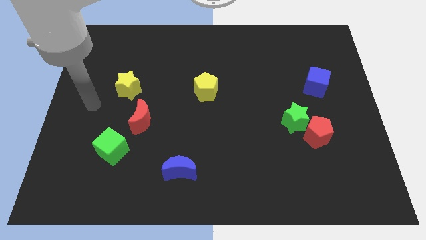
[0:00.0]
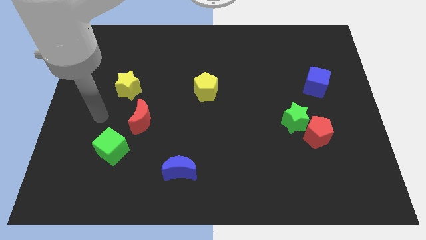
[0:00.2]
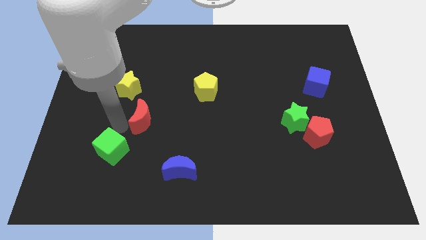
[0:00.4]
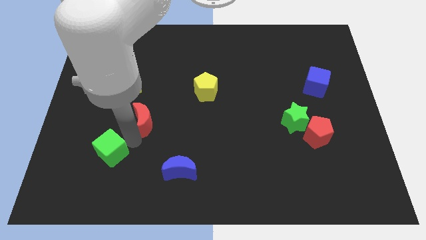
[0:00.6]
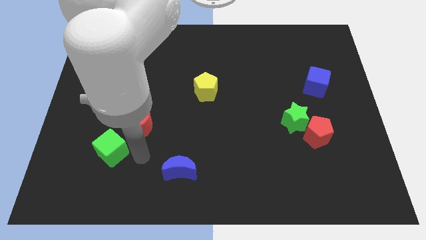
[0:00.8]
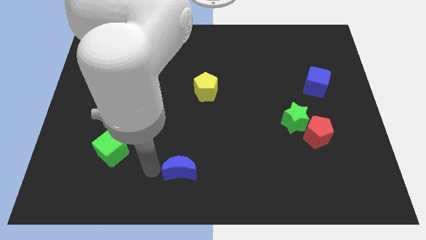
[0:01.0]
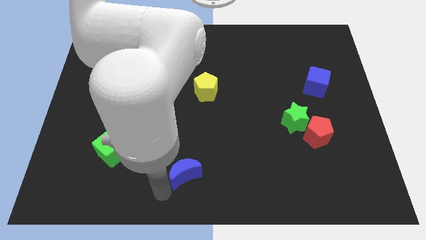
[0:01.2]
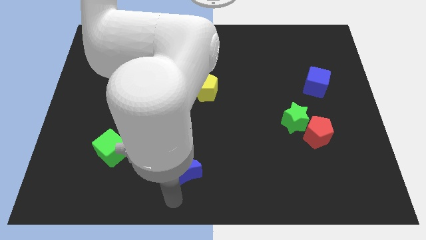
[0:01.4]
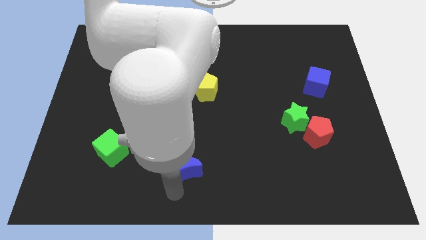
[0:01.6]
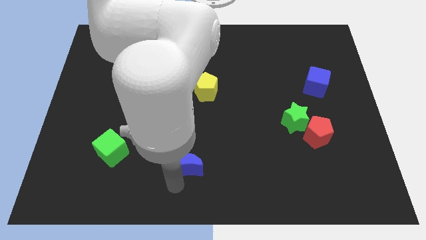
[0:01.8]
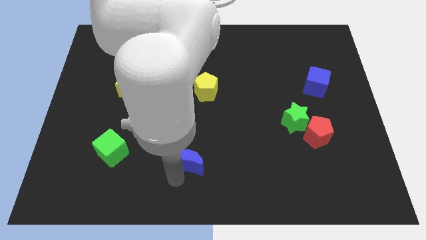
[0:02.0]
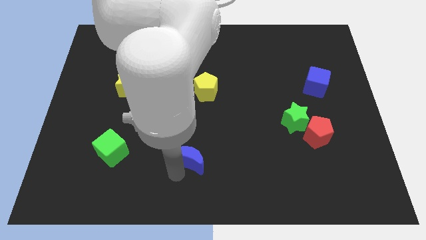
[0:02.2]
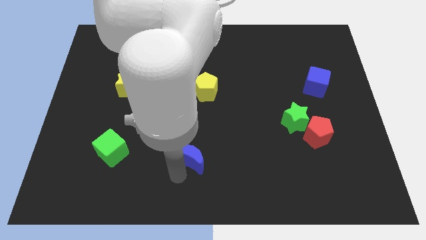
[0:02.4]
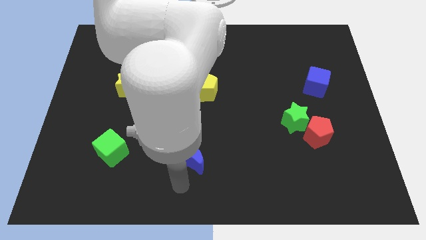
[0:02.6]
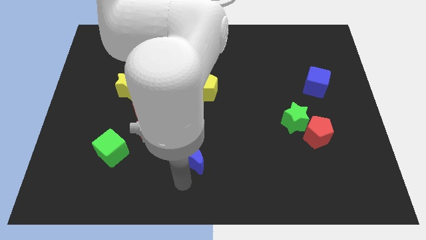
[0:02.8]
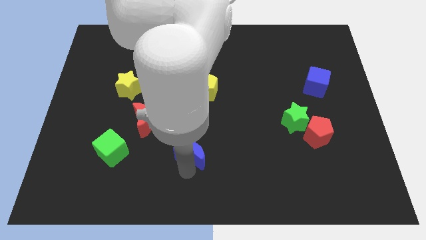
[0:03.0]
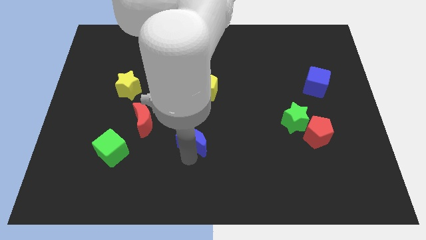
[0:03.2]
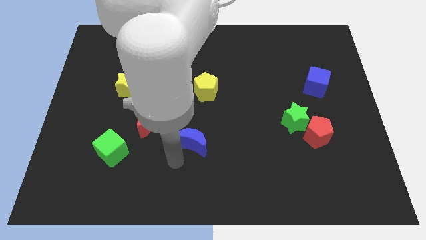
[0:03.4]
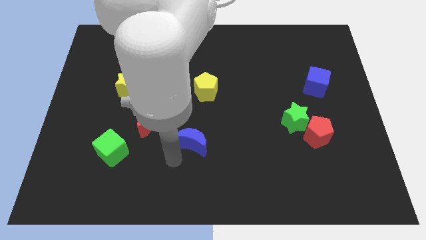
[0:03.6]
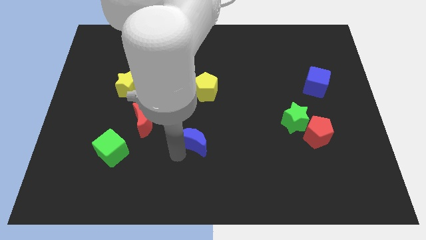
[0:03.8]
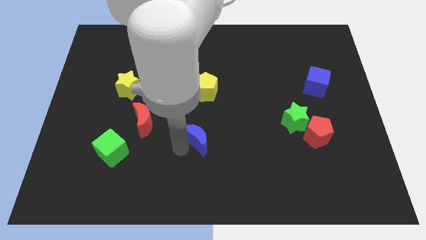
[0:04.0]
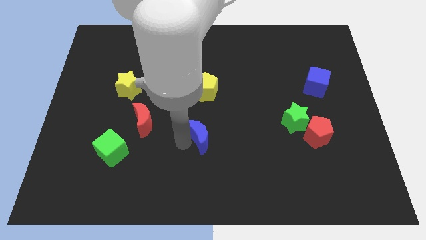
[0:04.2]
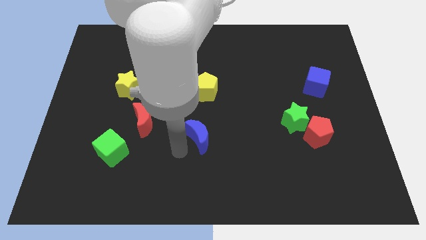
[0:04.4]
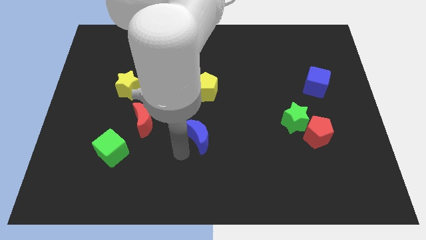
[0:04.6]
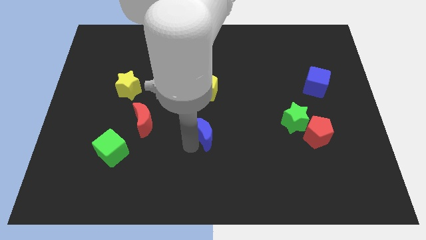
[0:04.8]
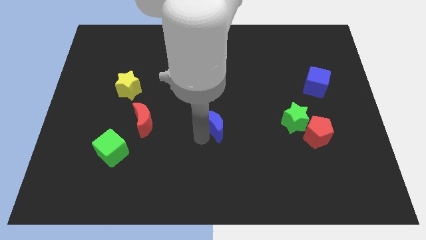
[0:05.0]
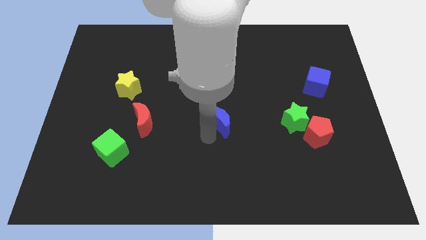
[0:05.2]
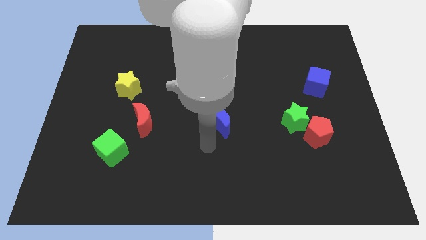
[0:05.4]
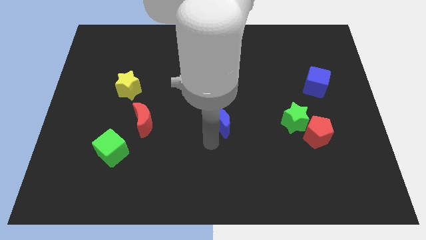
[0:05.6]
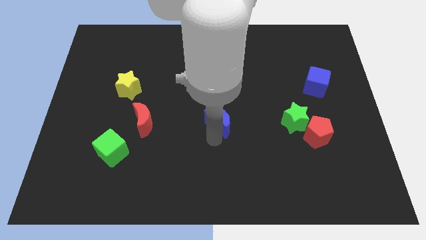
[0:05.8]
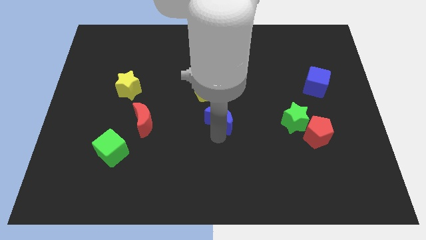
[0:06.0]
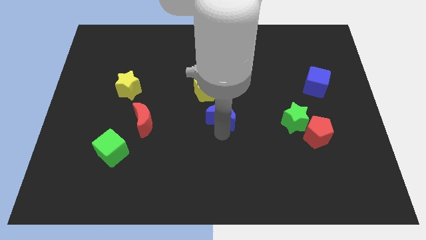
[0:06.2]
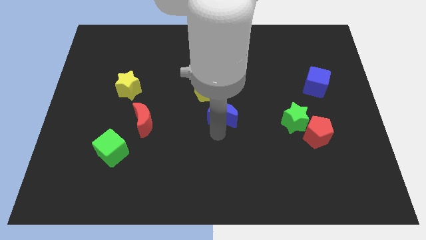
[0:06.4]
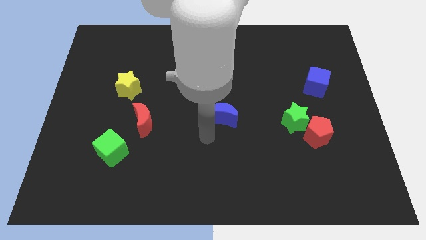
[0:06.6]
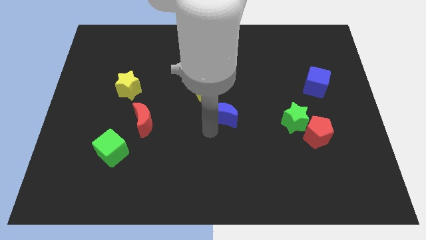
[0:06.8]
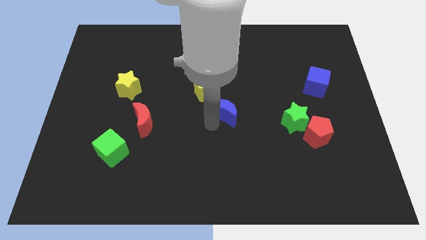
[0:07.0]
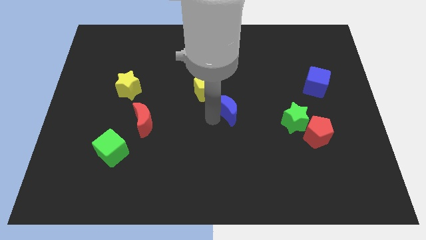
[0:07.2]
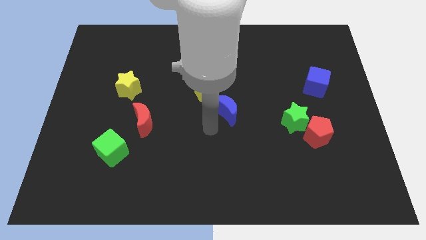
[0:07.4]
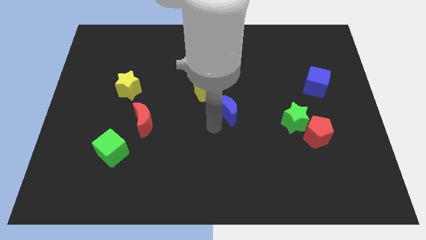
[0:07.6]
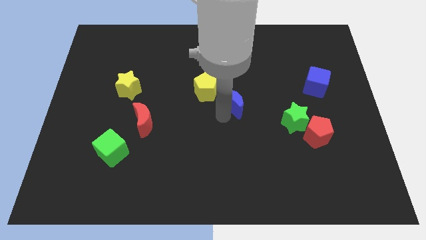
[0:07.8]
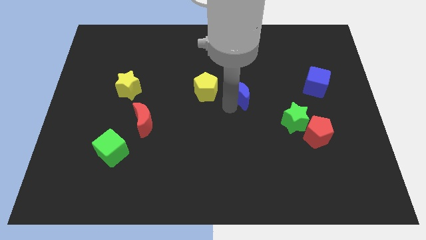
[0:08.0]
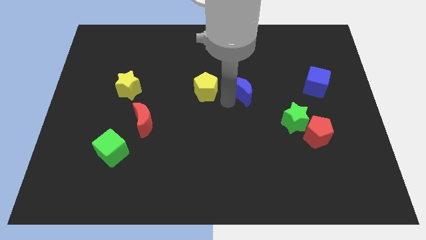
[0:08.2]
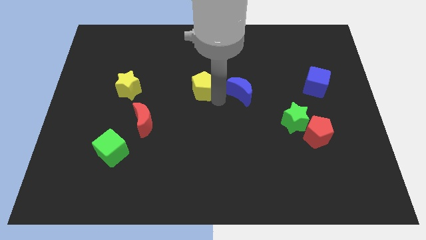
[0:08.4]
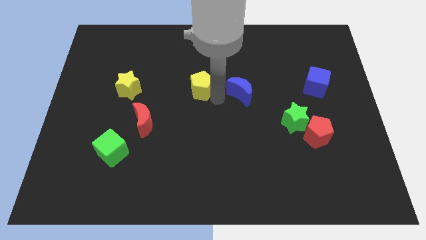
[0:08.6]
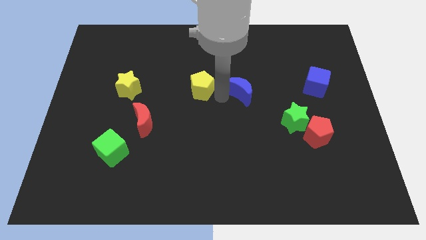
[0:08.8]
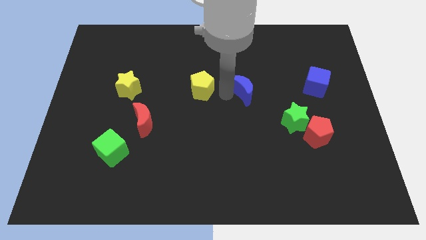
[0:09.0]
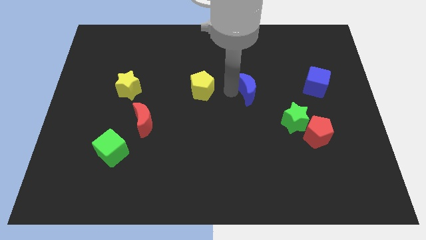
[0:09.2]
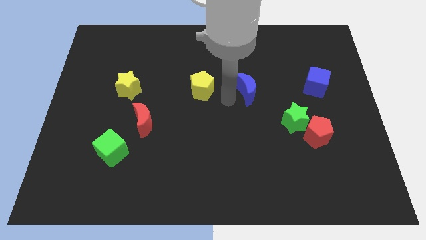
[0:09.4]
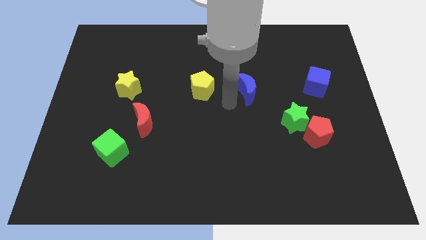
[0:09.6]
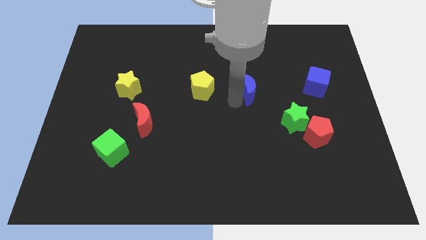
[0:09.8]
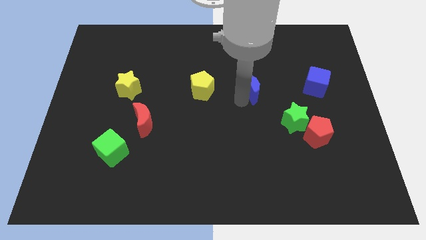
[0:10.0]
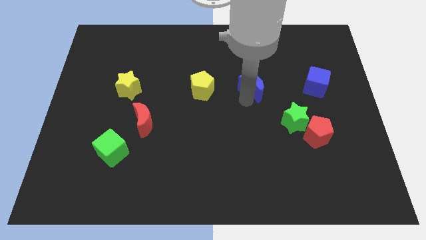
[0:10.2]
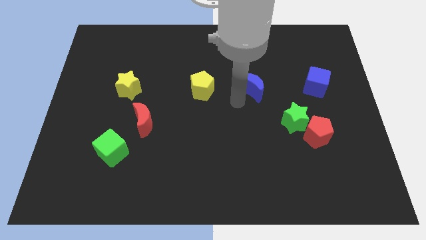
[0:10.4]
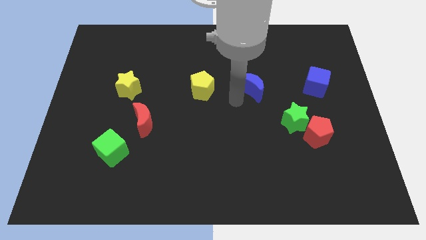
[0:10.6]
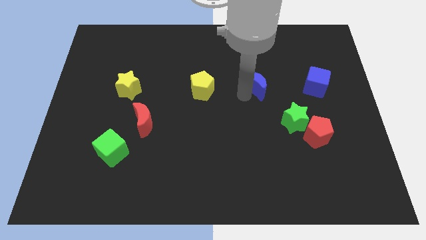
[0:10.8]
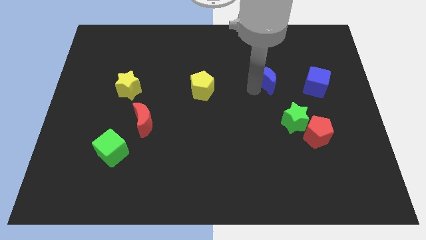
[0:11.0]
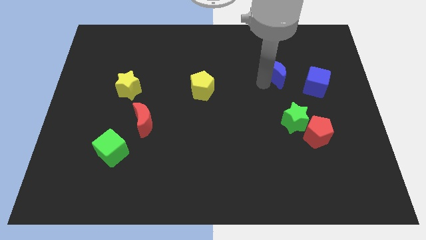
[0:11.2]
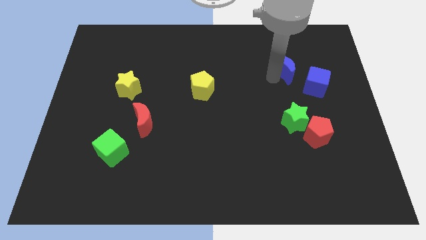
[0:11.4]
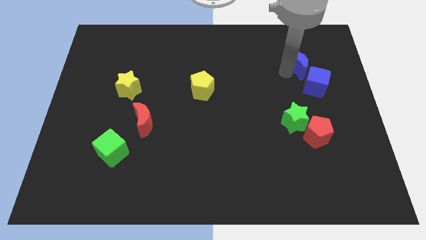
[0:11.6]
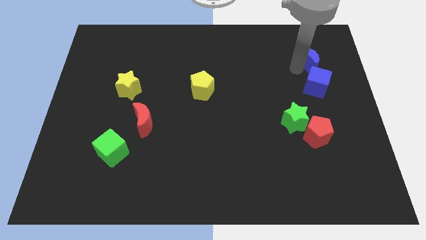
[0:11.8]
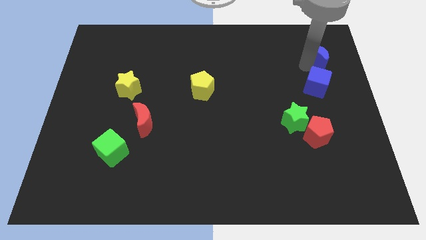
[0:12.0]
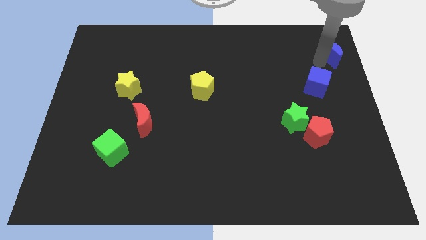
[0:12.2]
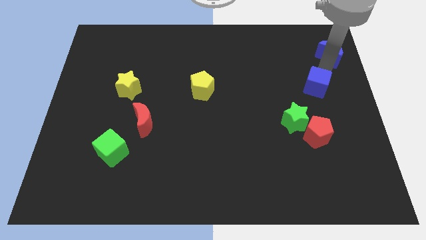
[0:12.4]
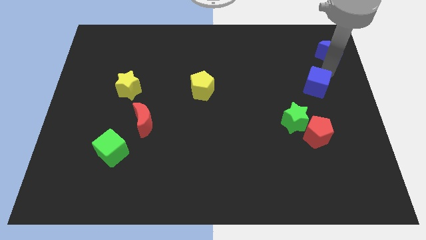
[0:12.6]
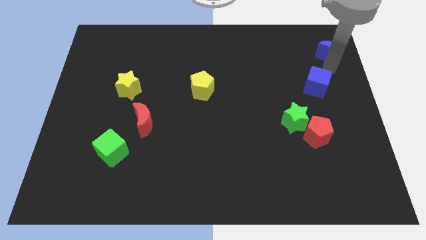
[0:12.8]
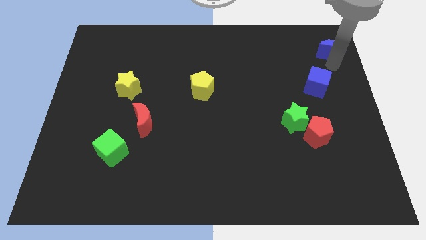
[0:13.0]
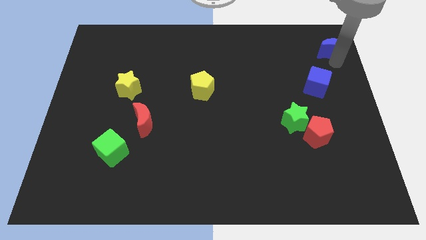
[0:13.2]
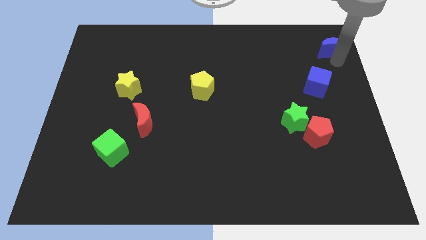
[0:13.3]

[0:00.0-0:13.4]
put the blue moon to the top right of the board
